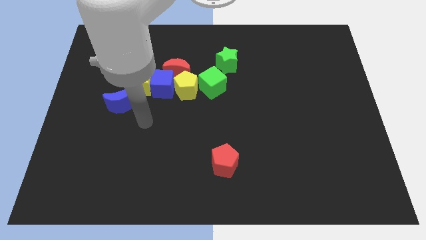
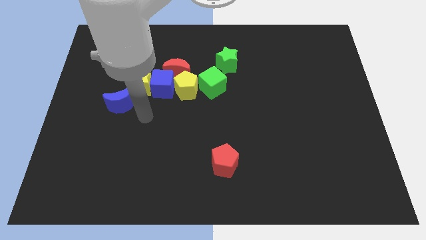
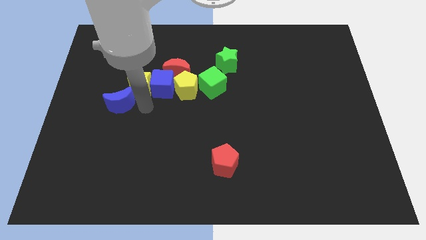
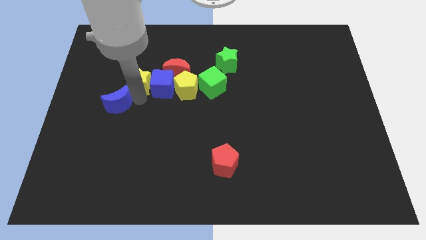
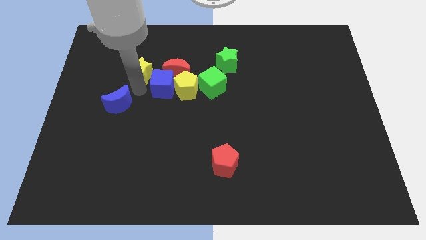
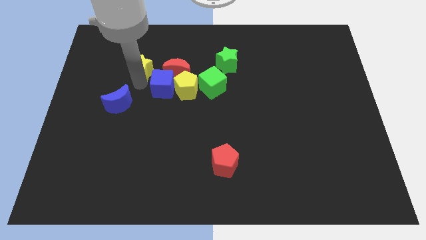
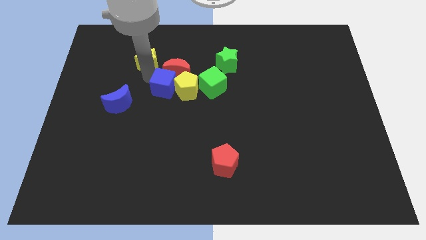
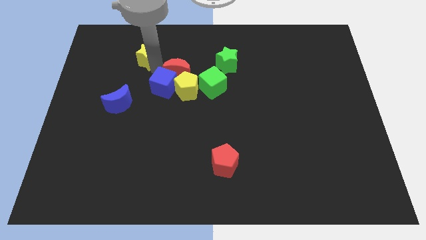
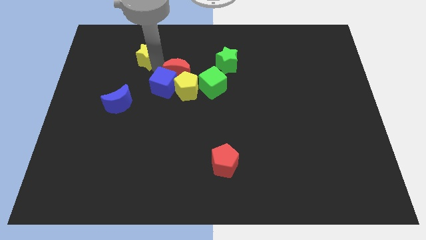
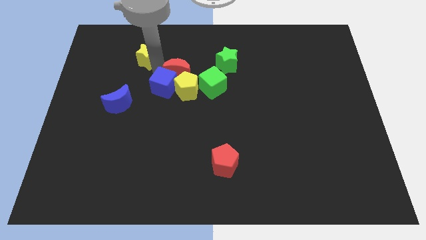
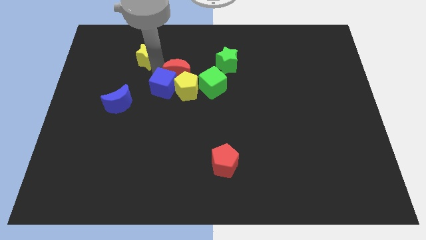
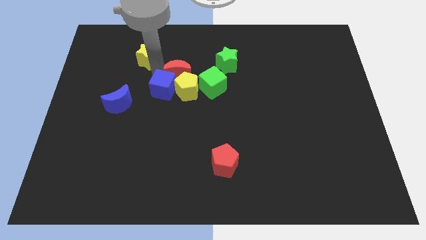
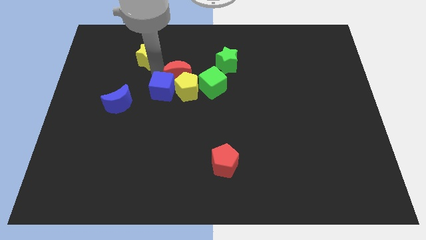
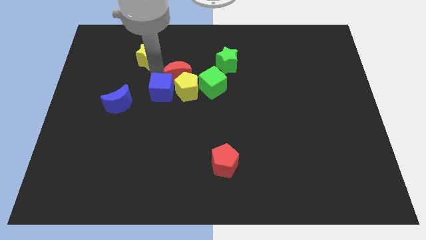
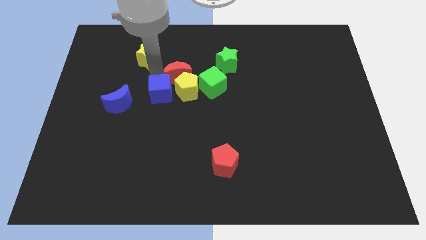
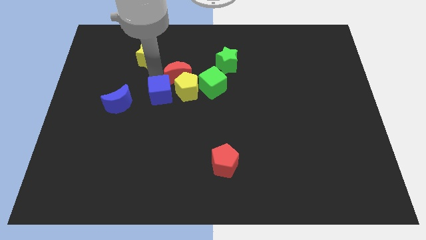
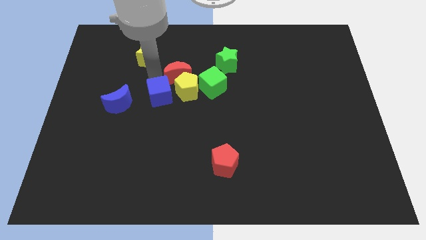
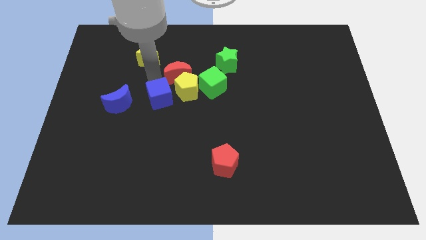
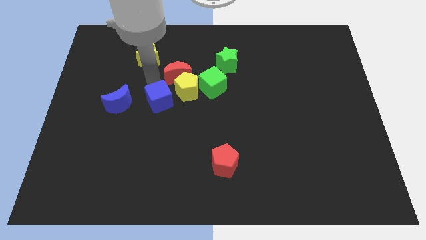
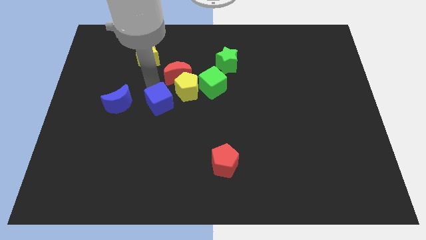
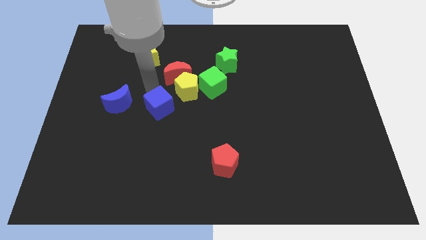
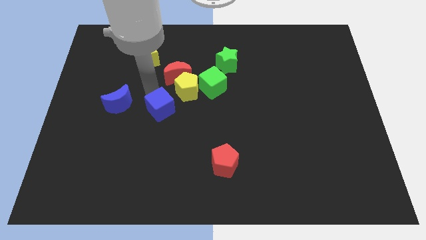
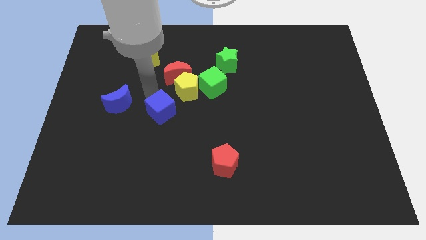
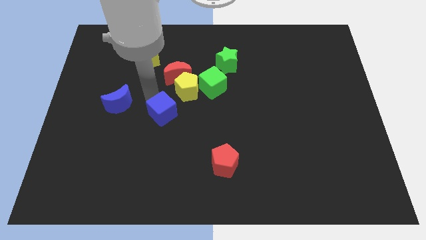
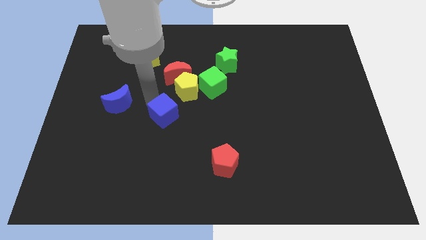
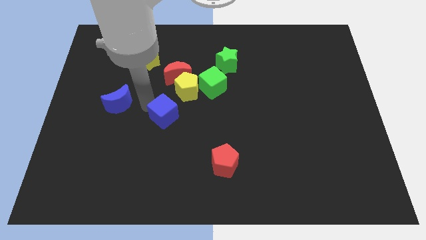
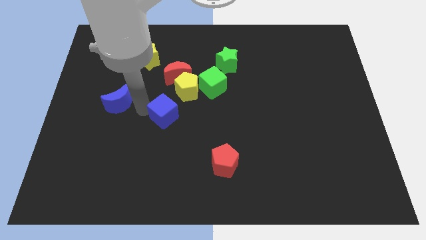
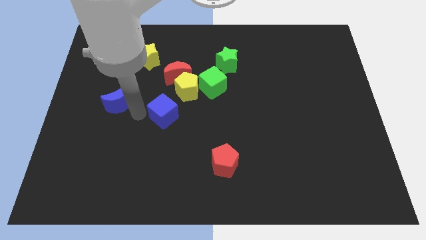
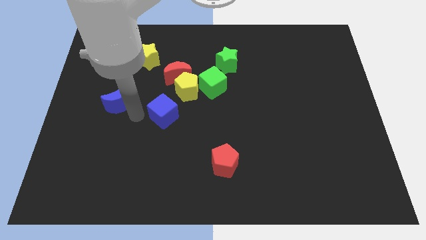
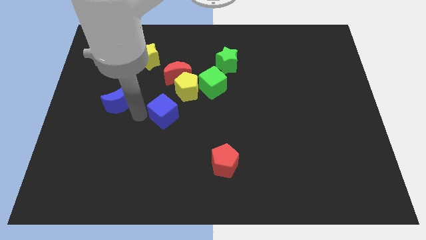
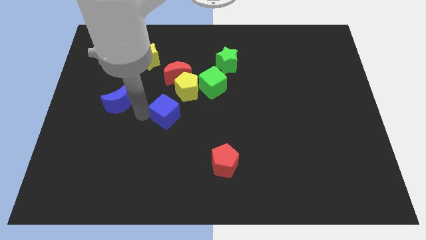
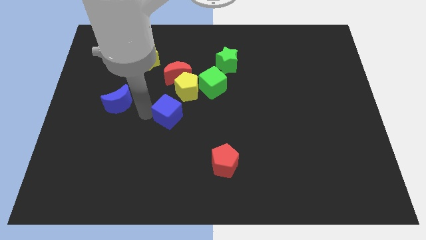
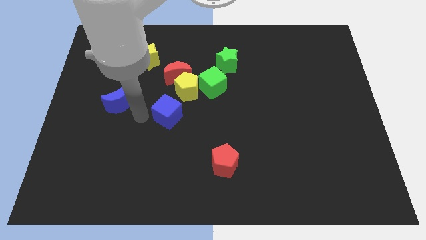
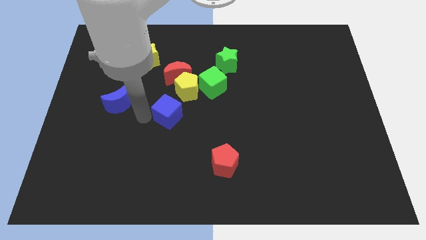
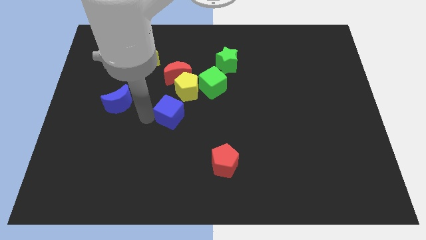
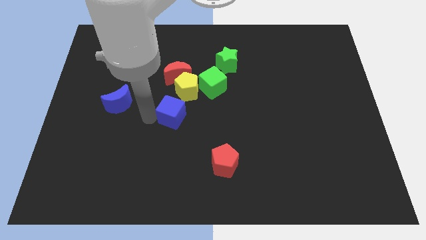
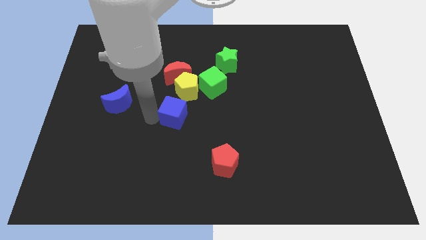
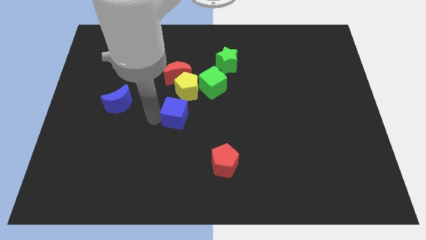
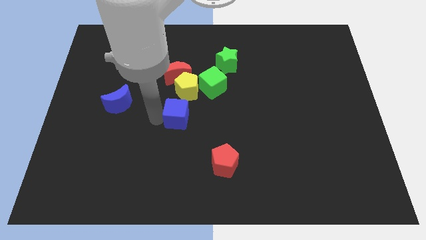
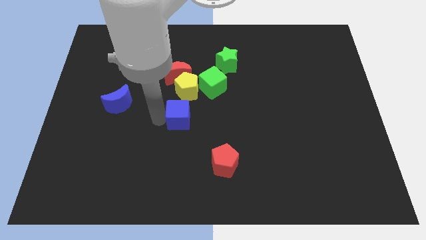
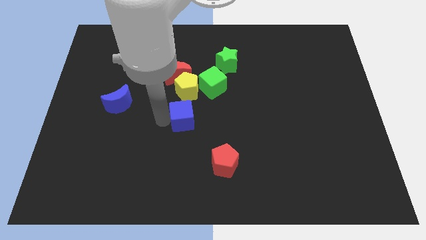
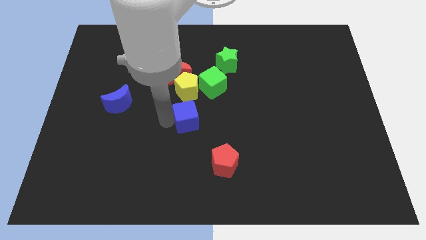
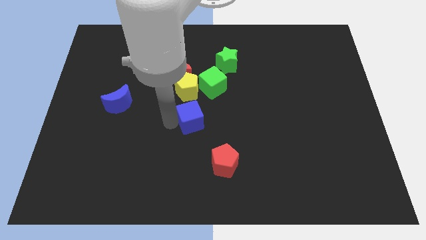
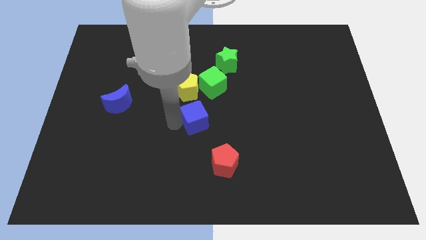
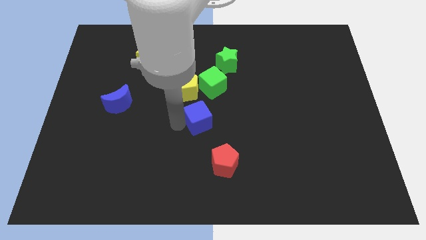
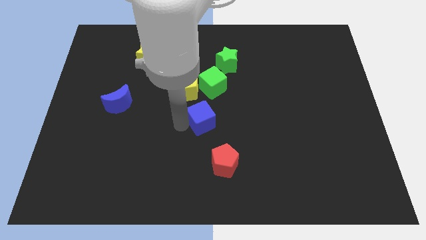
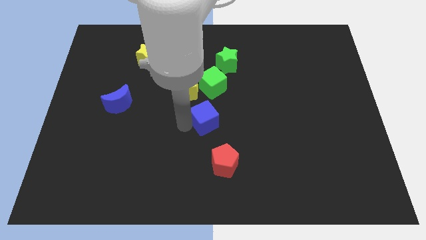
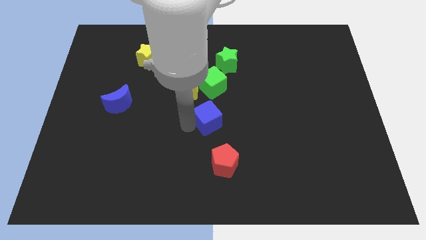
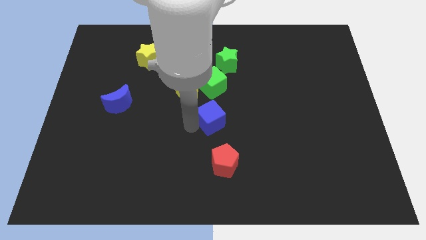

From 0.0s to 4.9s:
slightly slide the blue cube right

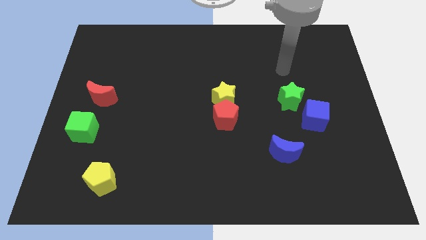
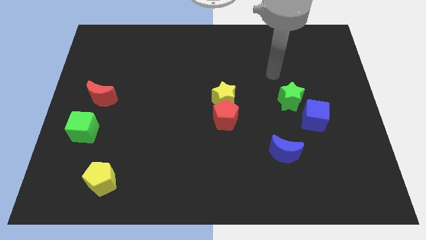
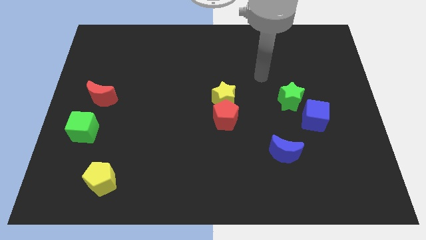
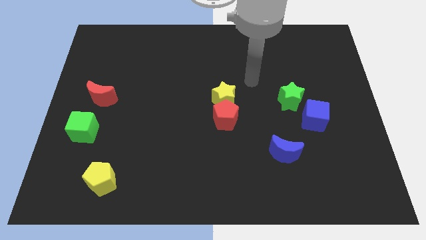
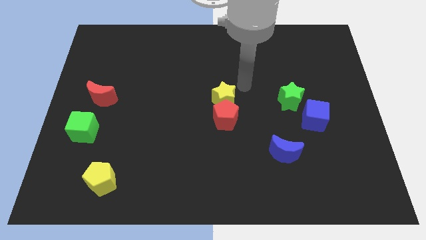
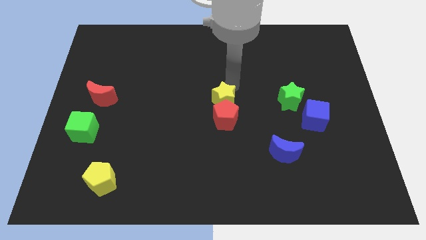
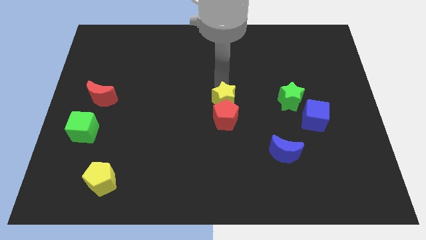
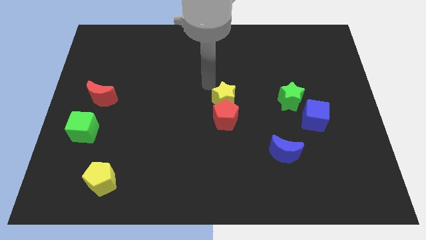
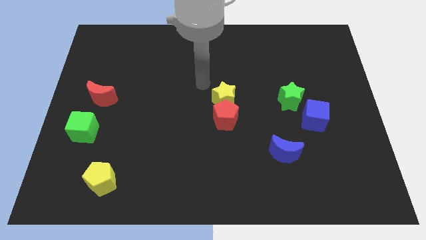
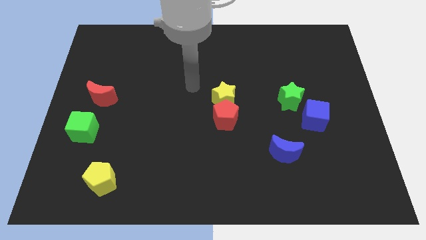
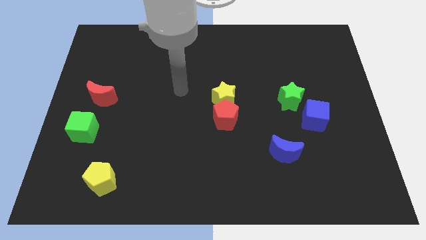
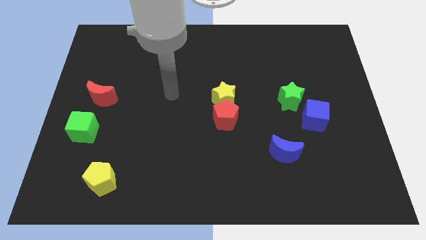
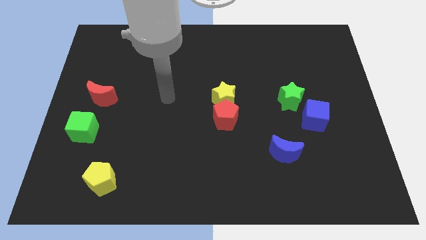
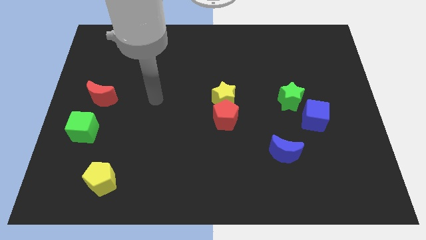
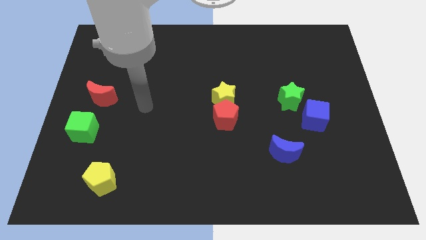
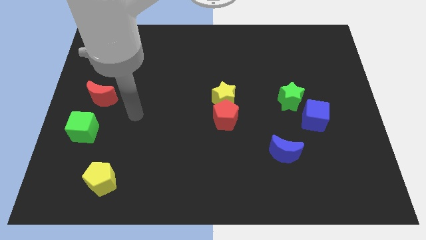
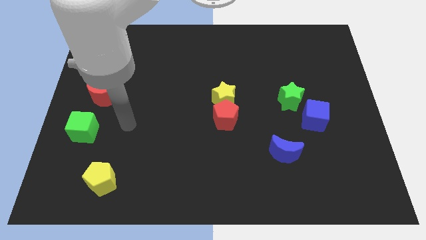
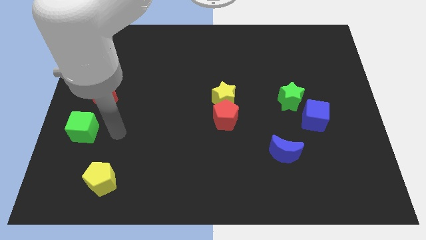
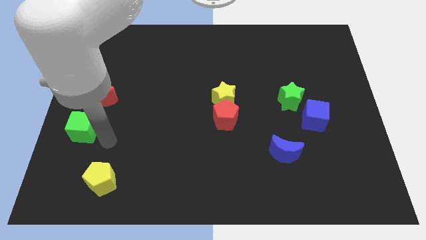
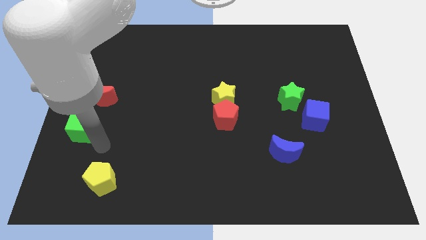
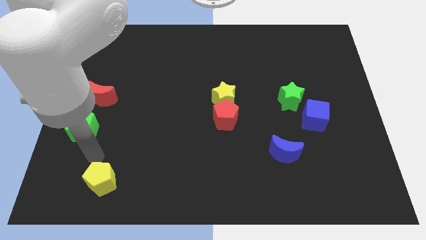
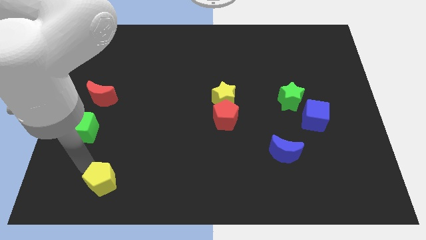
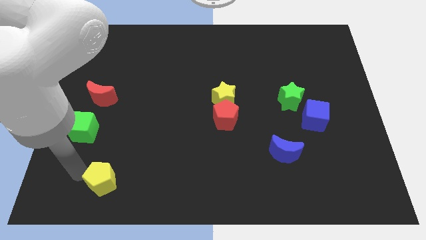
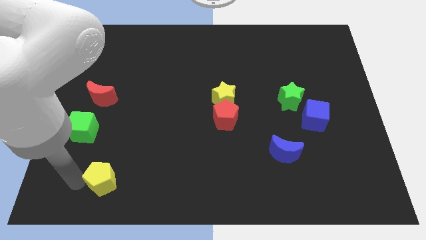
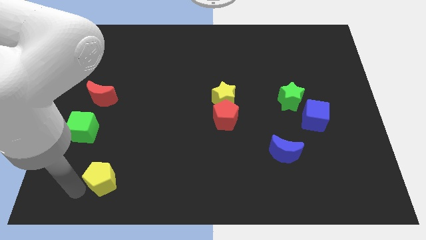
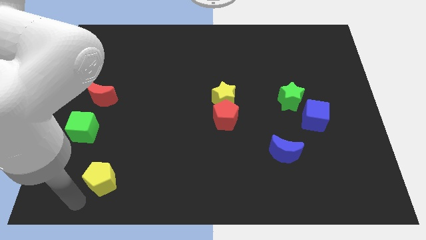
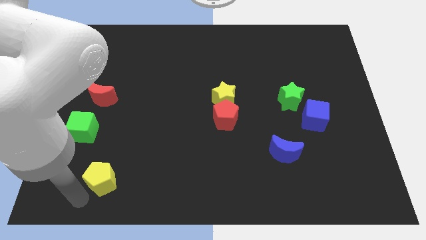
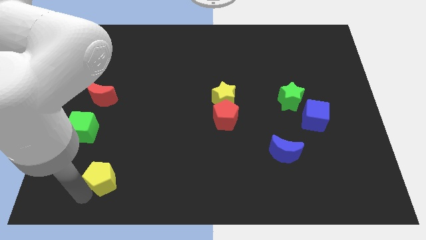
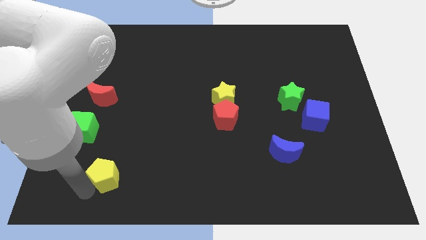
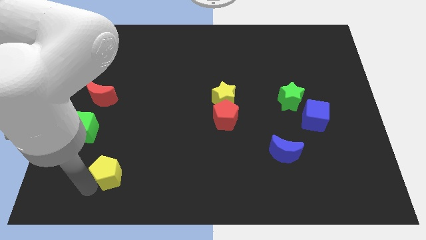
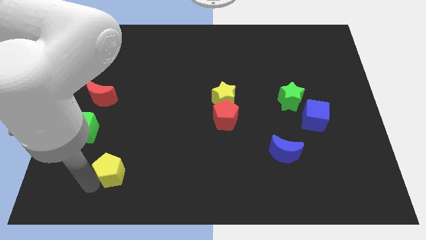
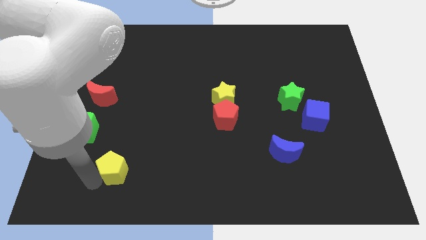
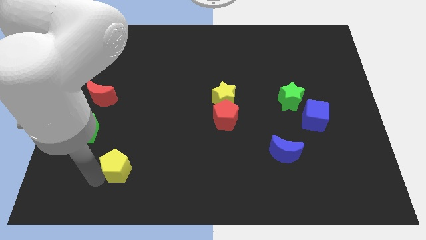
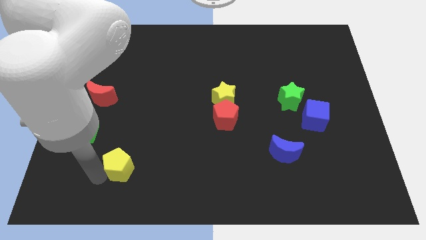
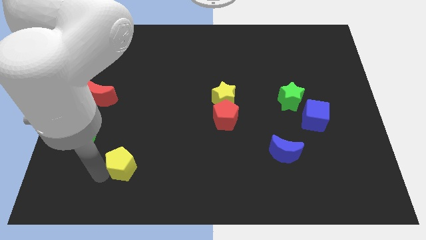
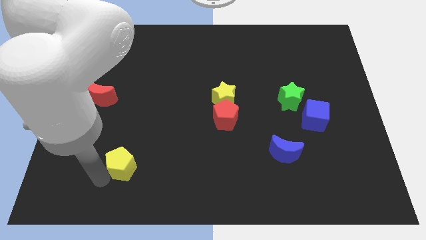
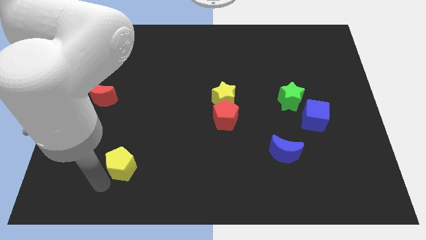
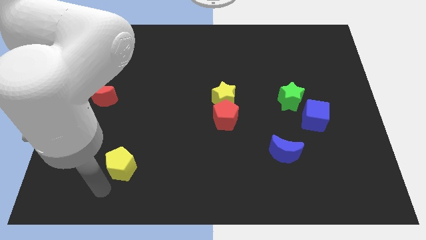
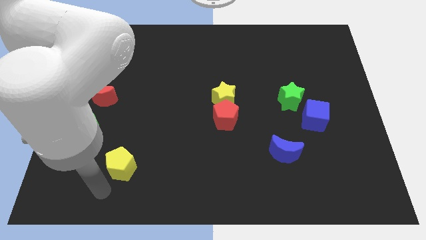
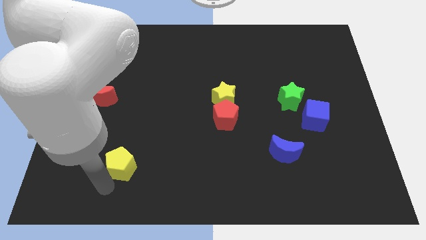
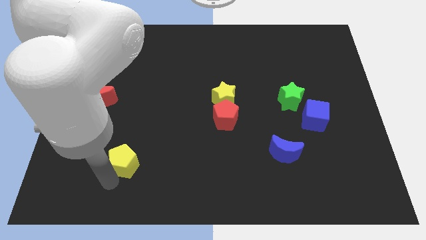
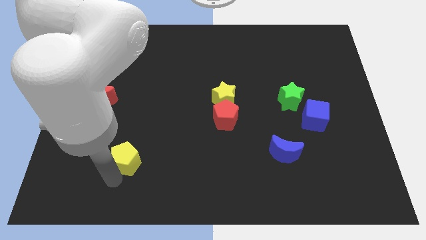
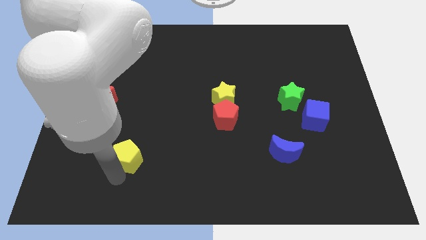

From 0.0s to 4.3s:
push the yellow pentagon slightly diagonally up and to the right
